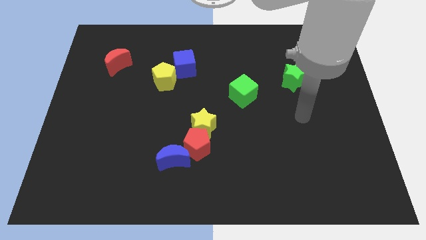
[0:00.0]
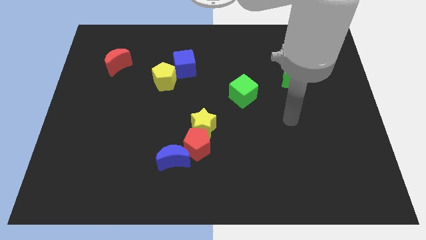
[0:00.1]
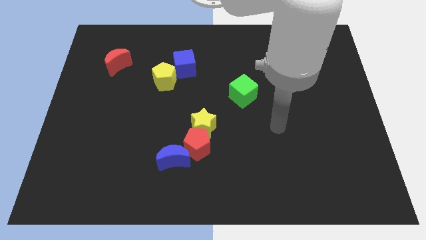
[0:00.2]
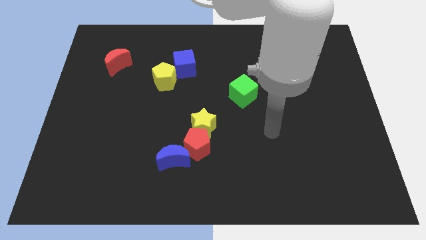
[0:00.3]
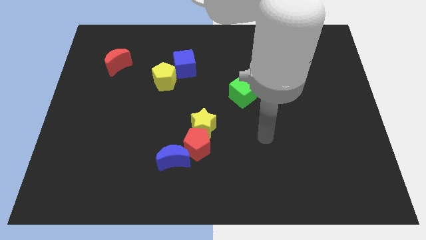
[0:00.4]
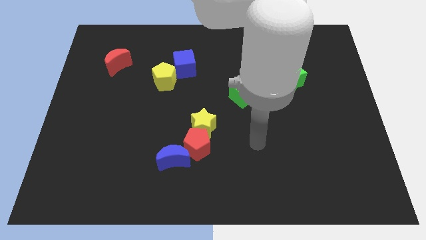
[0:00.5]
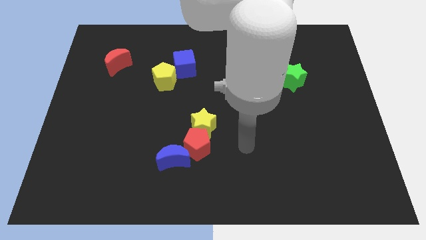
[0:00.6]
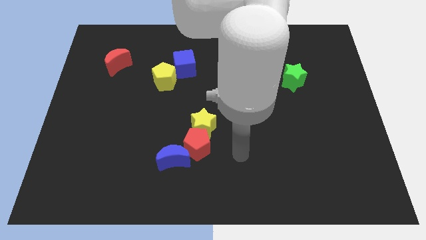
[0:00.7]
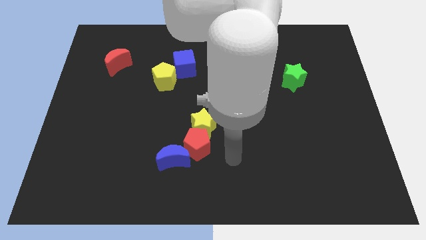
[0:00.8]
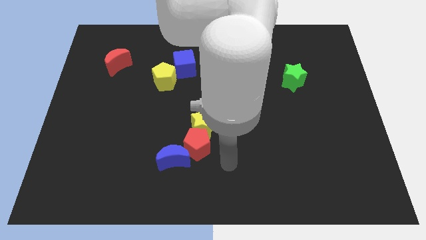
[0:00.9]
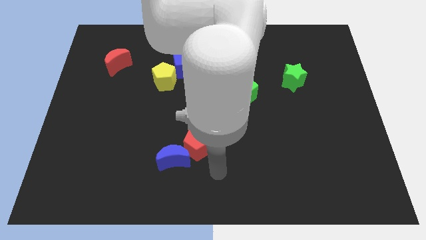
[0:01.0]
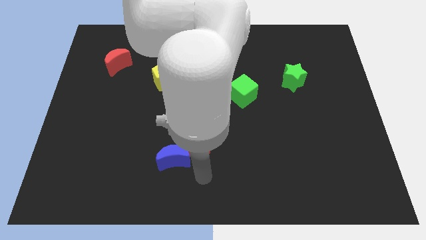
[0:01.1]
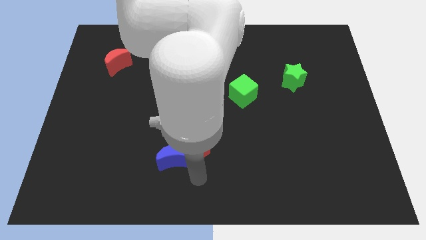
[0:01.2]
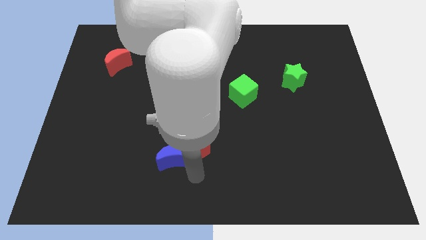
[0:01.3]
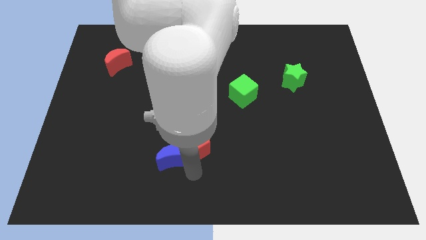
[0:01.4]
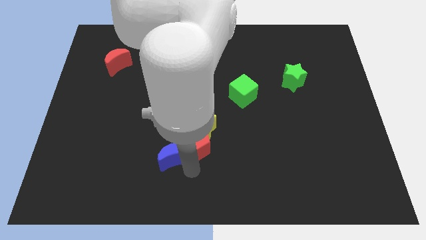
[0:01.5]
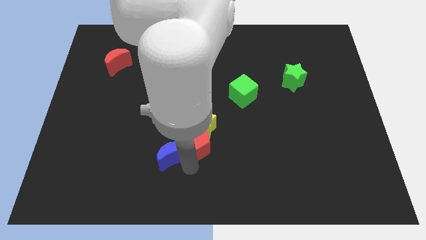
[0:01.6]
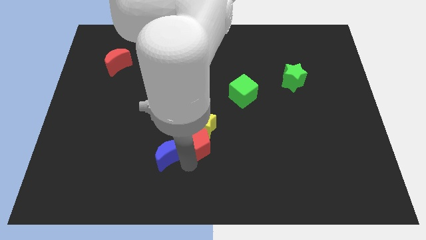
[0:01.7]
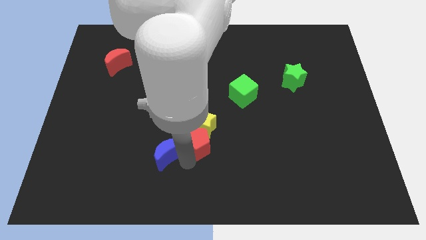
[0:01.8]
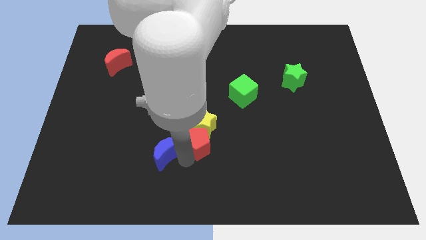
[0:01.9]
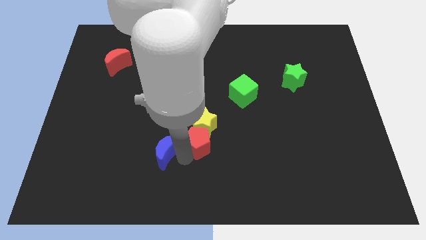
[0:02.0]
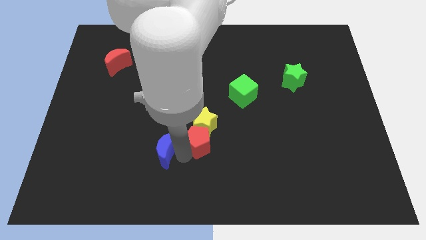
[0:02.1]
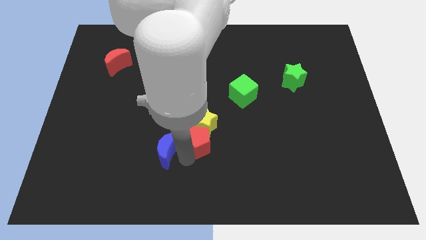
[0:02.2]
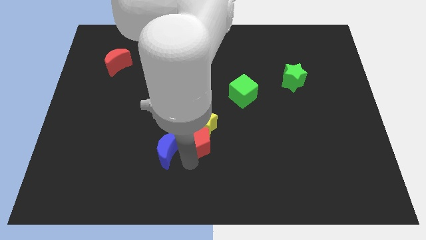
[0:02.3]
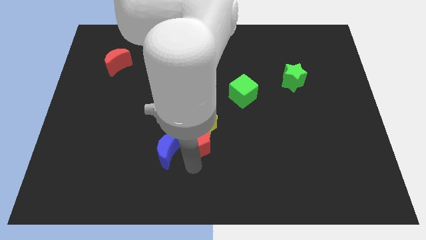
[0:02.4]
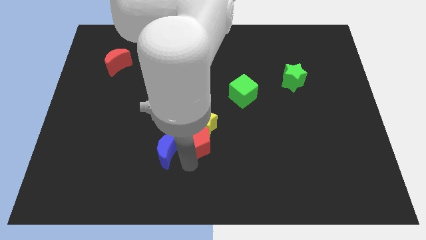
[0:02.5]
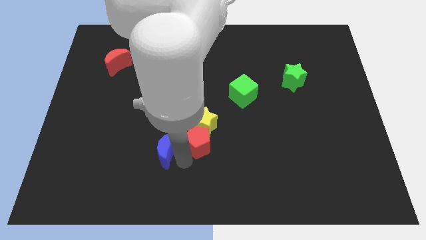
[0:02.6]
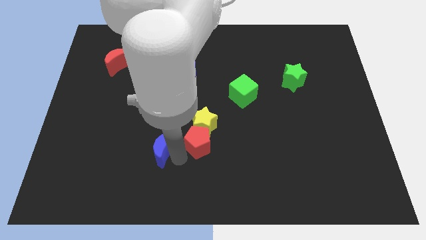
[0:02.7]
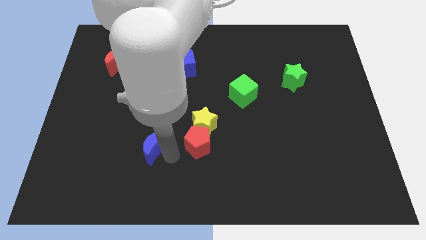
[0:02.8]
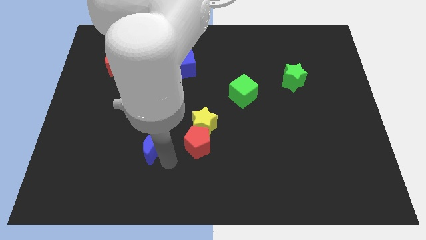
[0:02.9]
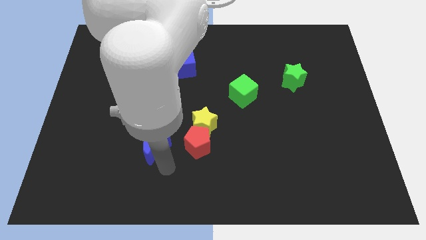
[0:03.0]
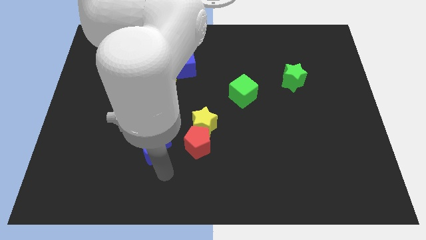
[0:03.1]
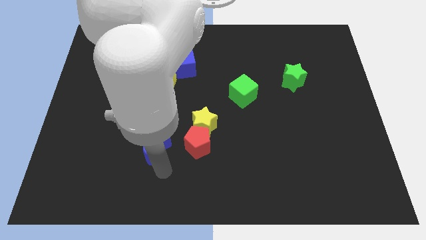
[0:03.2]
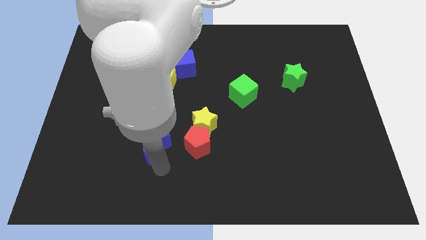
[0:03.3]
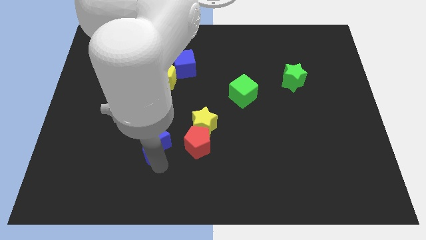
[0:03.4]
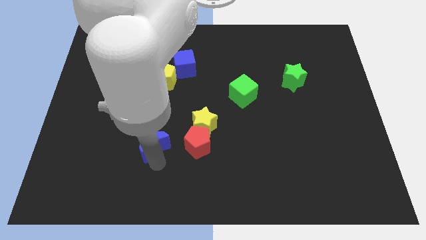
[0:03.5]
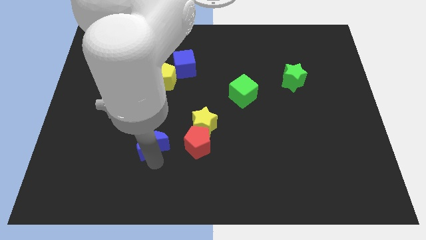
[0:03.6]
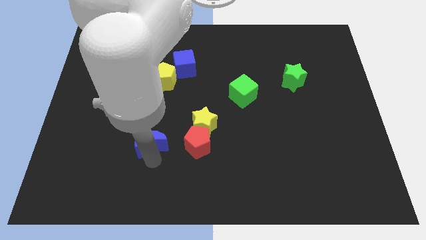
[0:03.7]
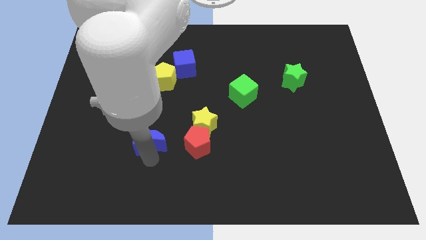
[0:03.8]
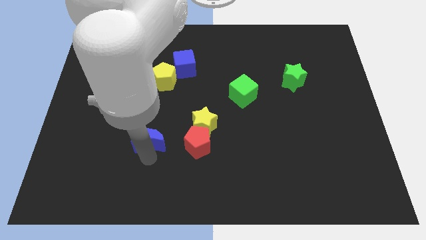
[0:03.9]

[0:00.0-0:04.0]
move the blue moon up and to the left diagonally a little

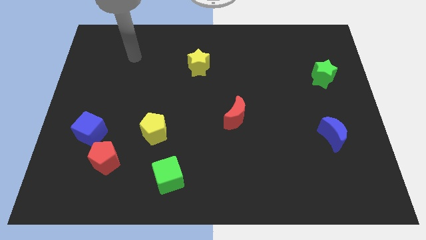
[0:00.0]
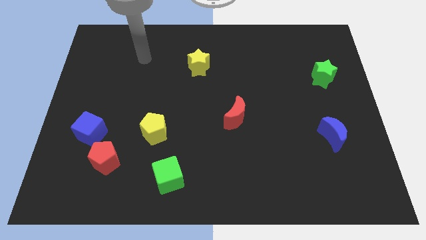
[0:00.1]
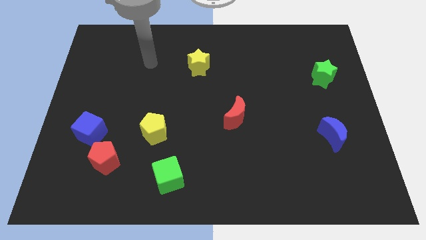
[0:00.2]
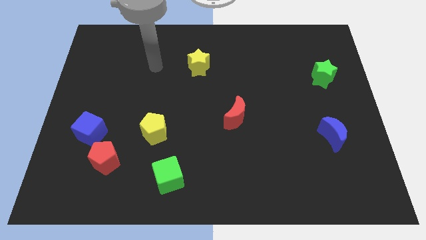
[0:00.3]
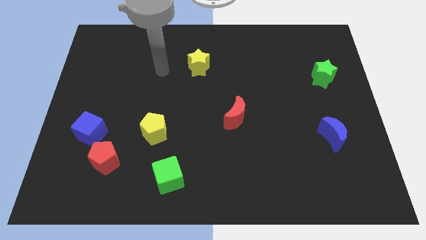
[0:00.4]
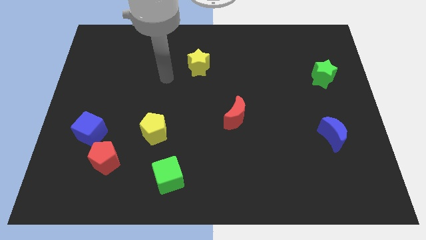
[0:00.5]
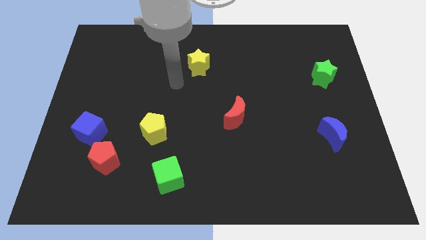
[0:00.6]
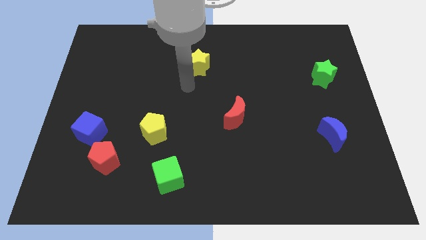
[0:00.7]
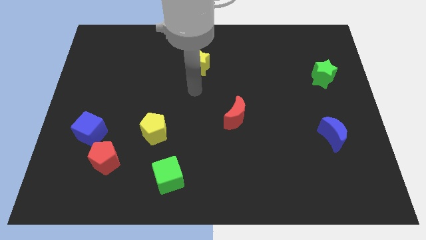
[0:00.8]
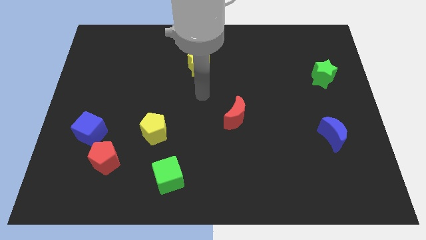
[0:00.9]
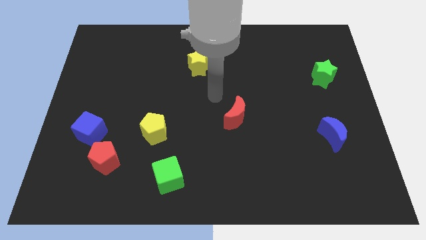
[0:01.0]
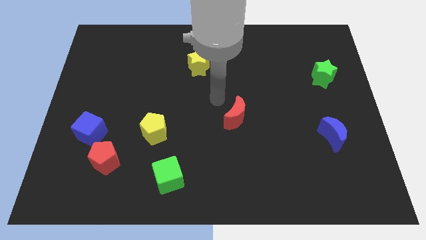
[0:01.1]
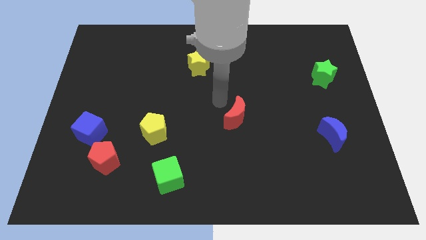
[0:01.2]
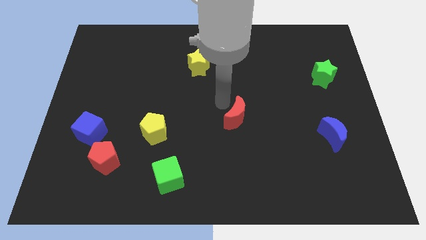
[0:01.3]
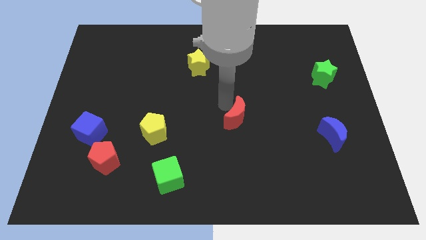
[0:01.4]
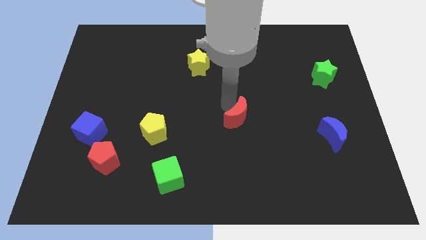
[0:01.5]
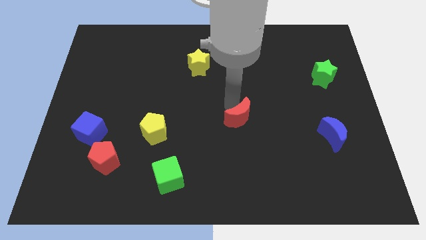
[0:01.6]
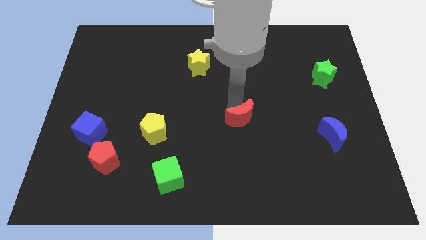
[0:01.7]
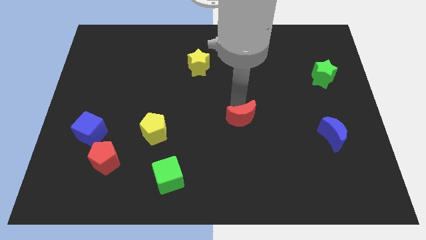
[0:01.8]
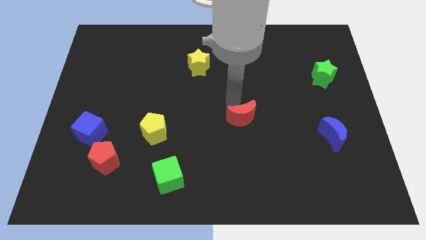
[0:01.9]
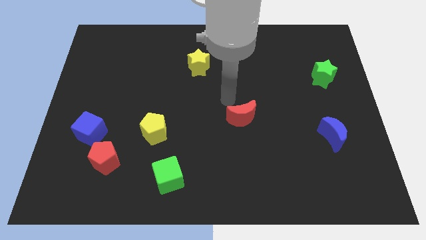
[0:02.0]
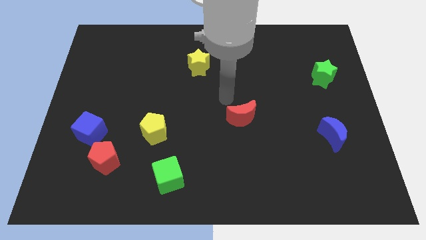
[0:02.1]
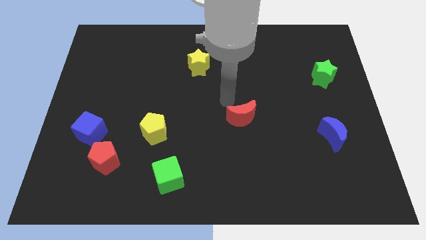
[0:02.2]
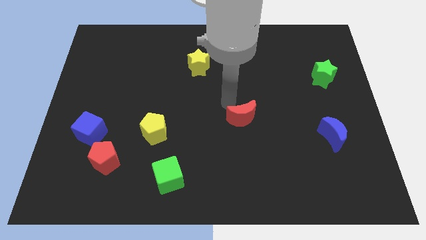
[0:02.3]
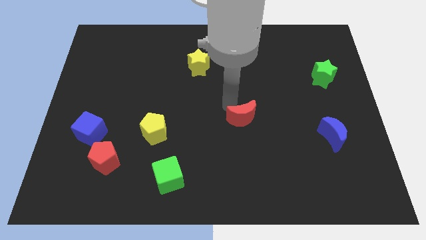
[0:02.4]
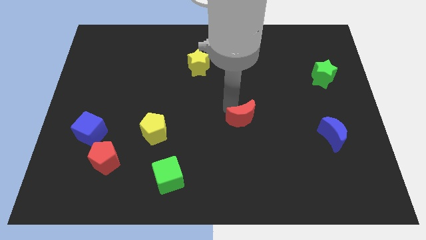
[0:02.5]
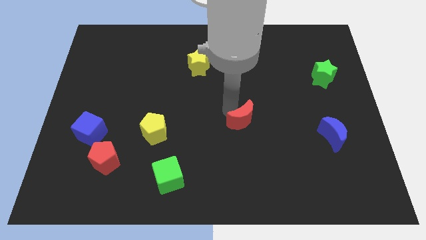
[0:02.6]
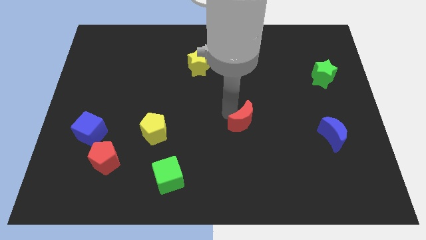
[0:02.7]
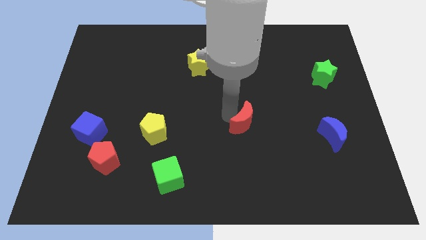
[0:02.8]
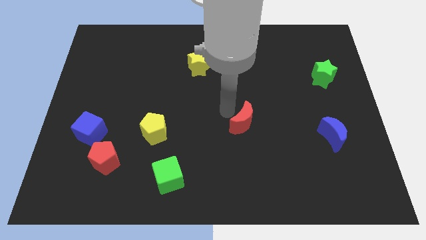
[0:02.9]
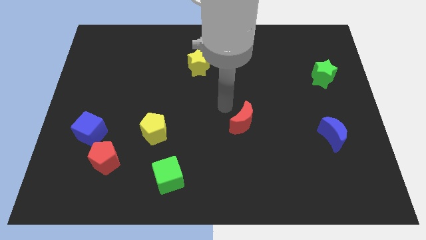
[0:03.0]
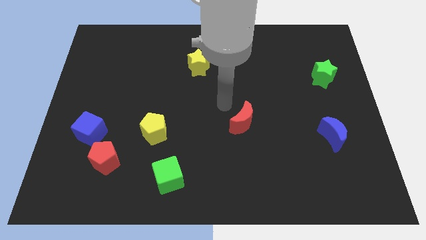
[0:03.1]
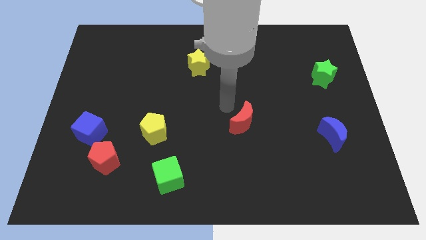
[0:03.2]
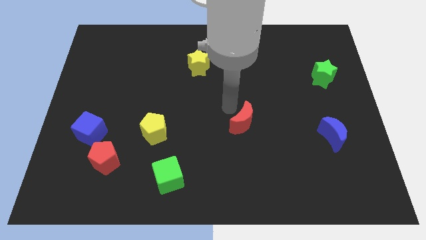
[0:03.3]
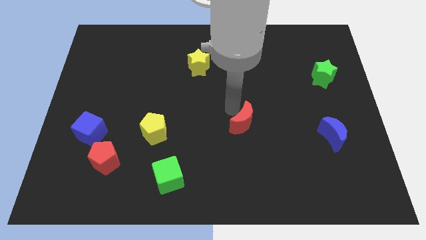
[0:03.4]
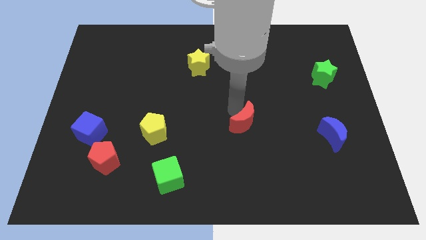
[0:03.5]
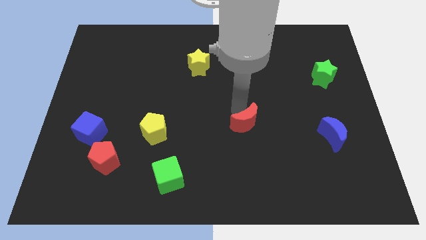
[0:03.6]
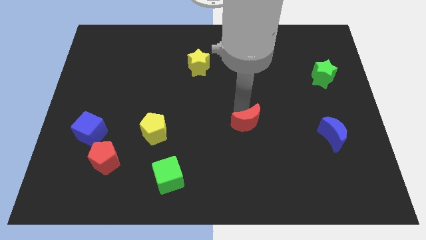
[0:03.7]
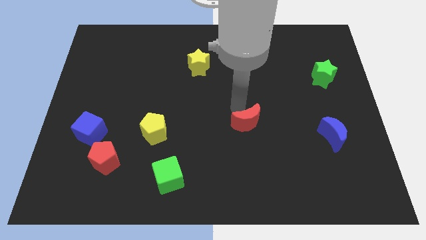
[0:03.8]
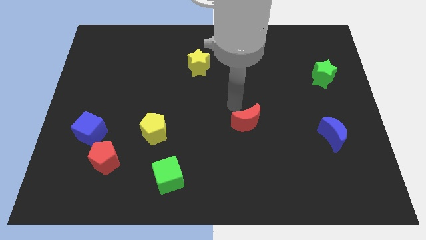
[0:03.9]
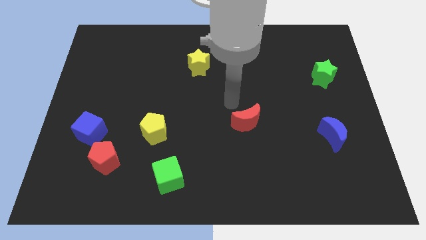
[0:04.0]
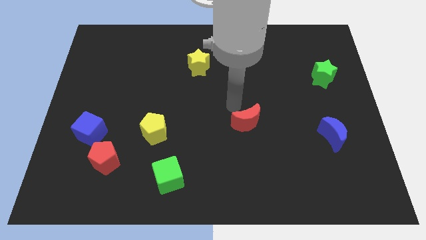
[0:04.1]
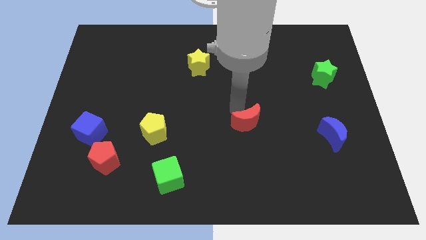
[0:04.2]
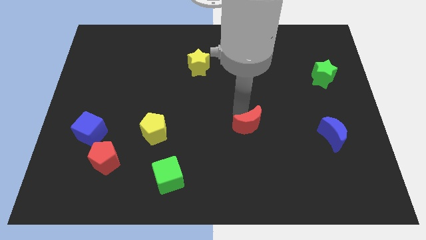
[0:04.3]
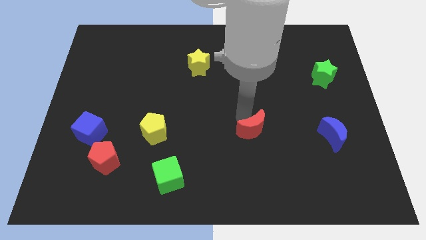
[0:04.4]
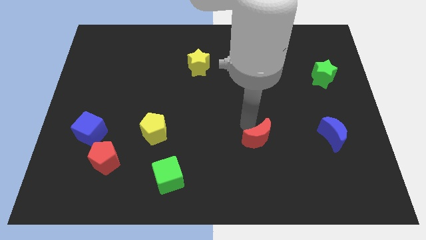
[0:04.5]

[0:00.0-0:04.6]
push the red moon slightly downwards and then right
